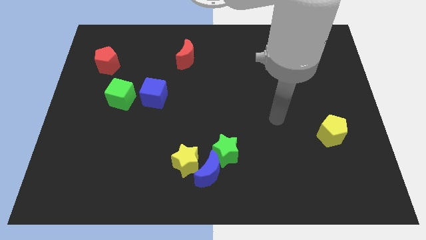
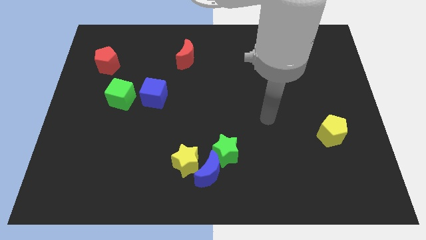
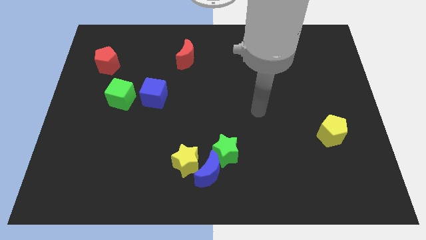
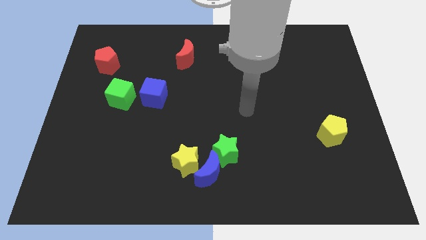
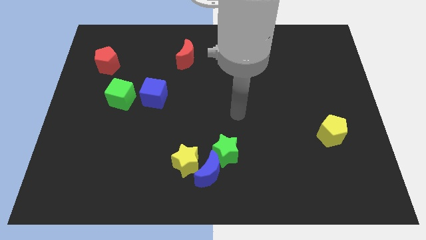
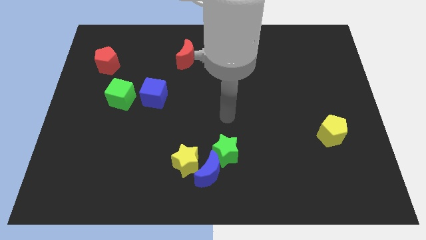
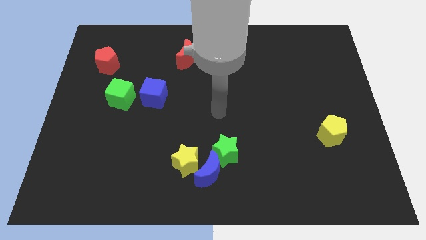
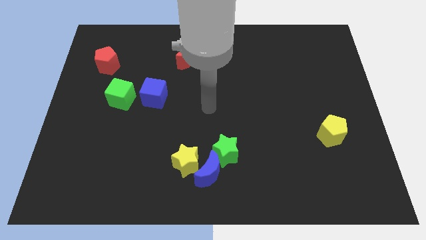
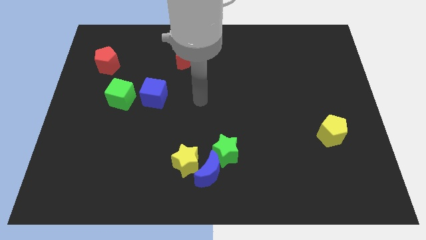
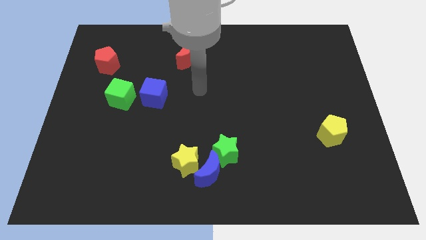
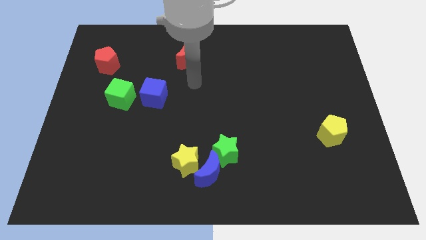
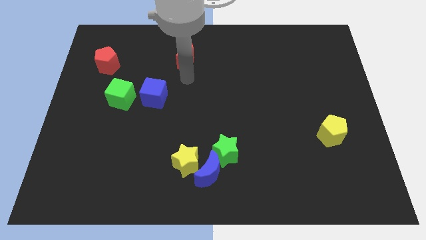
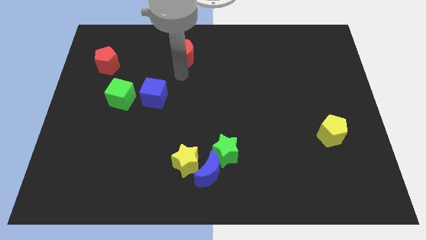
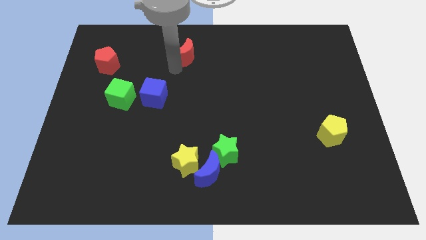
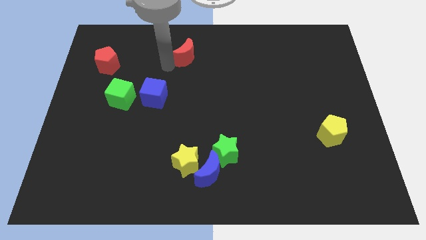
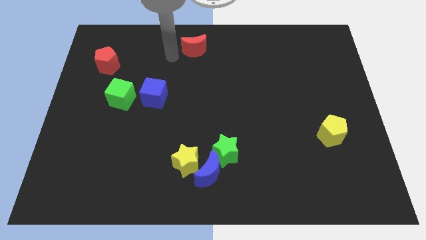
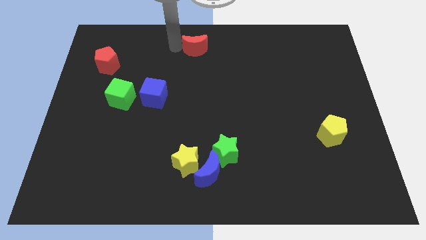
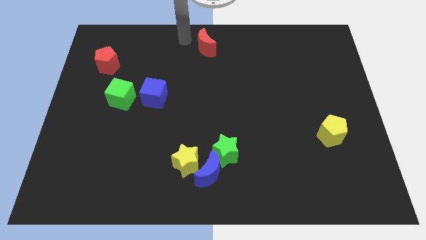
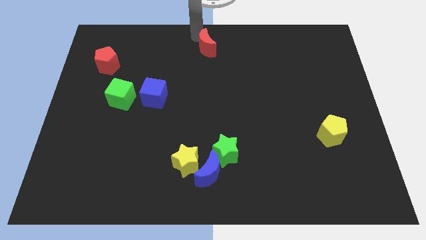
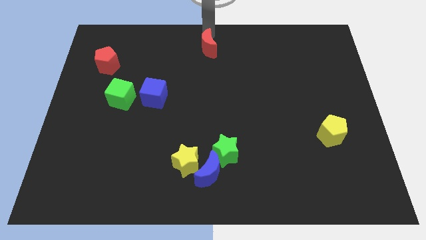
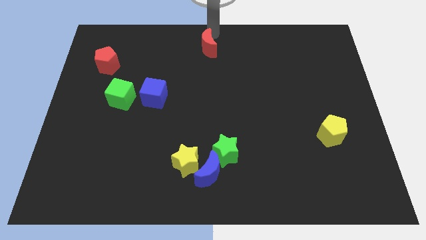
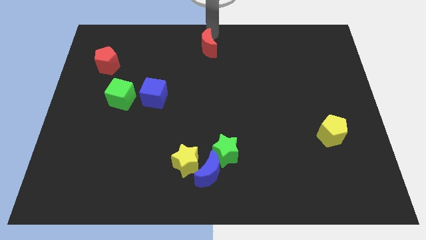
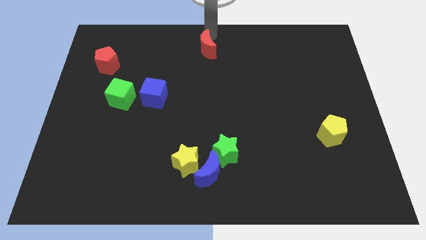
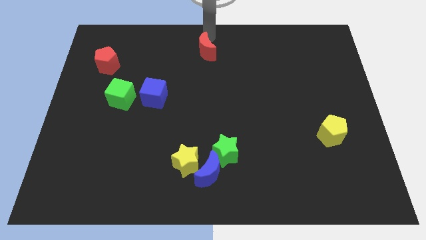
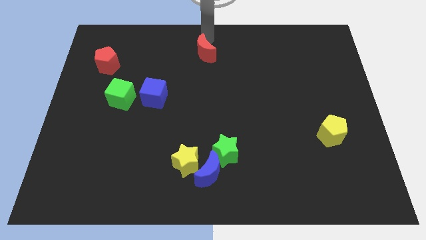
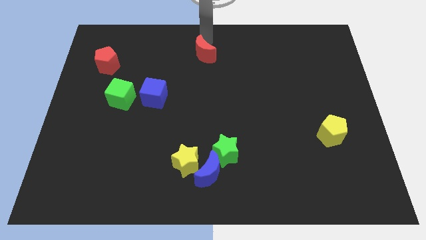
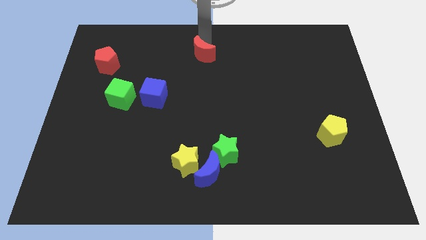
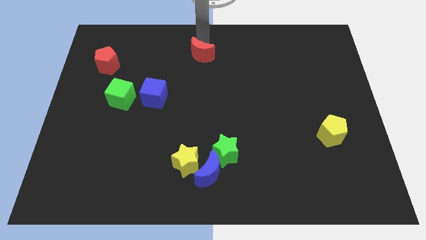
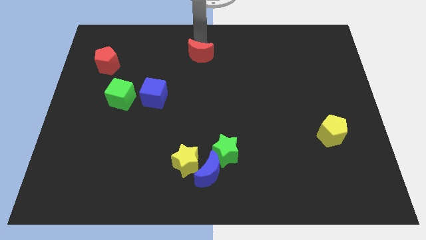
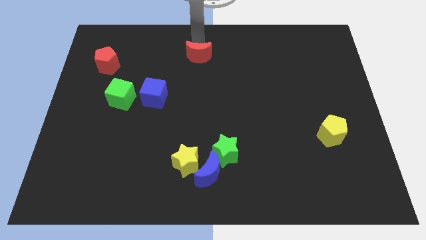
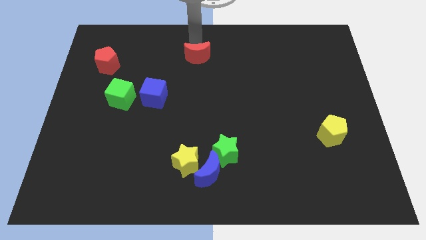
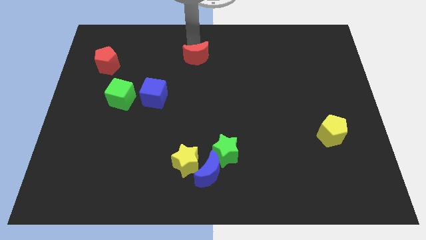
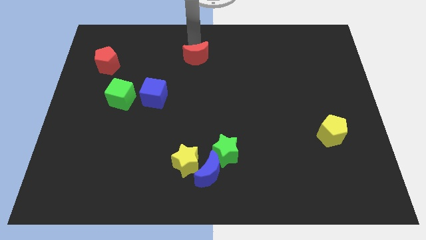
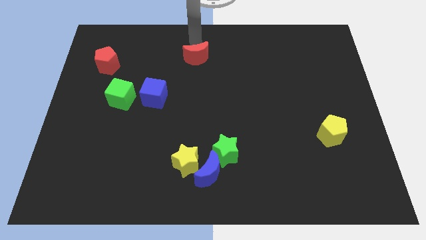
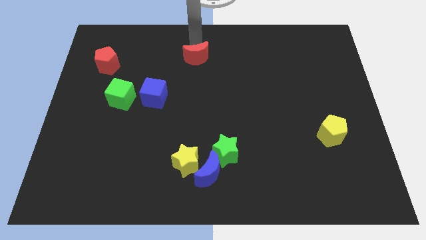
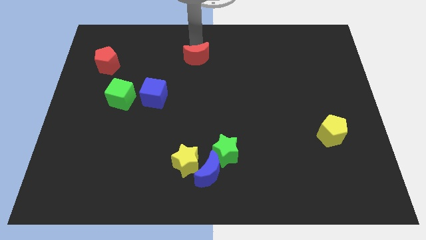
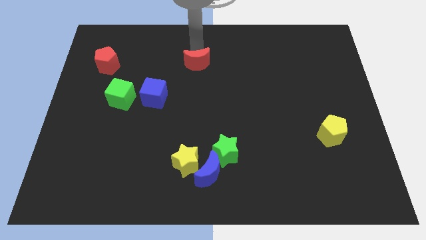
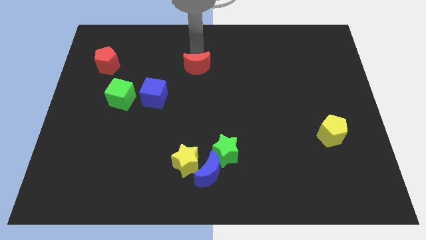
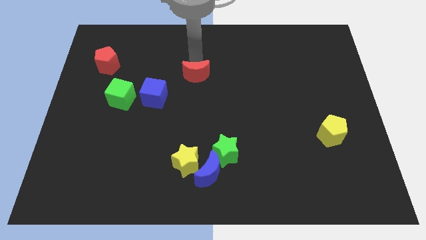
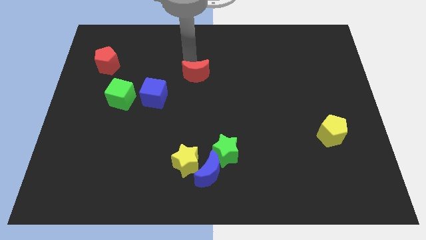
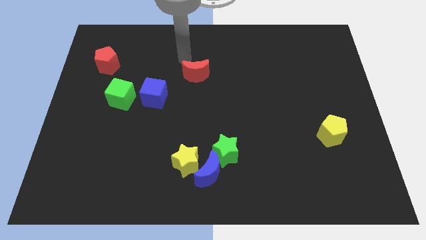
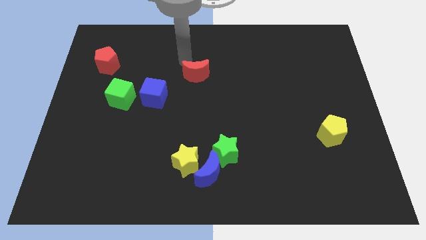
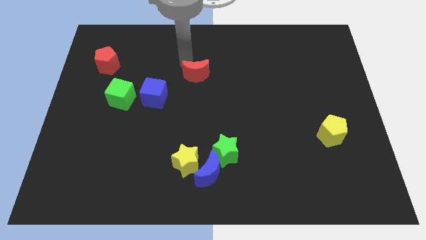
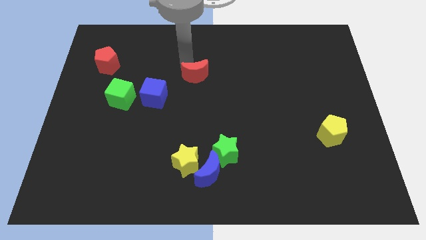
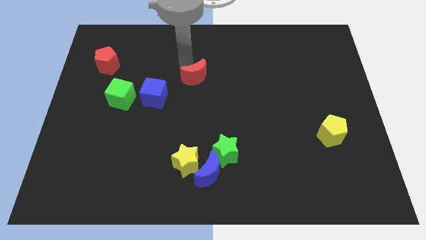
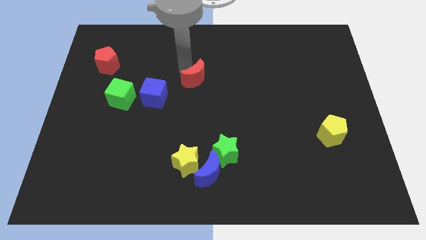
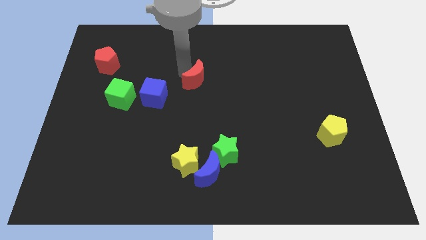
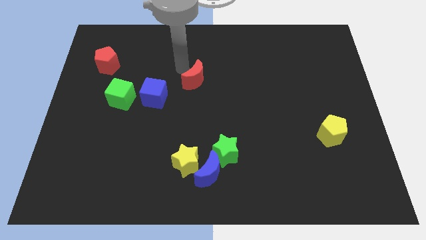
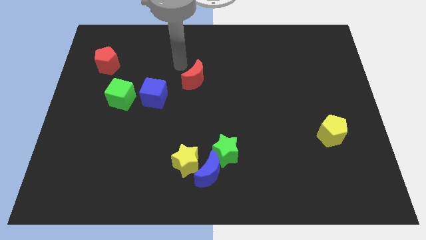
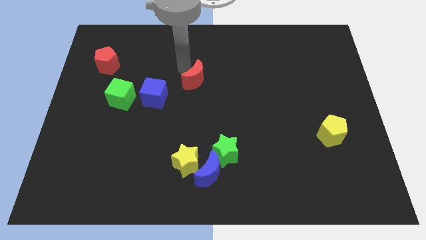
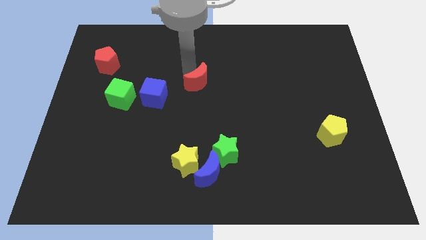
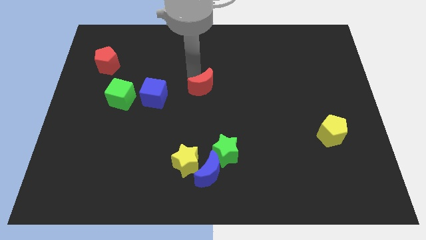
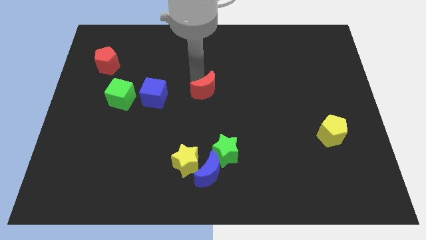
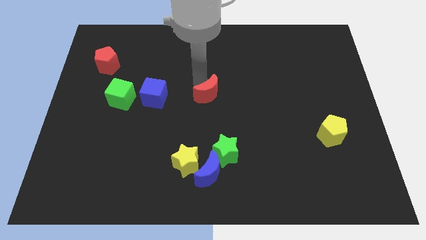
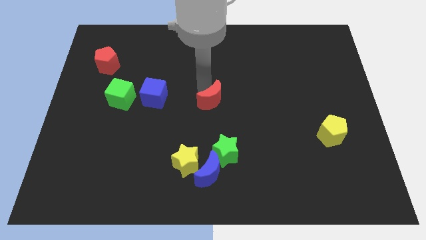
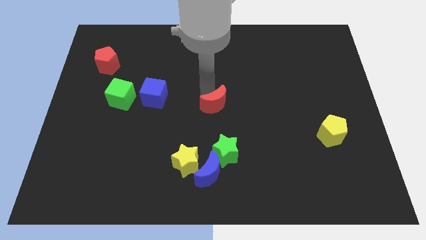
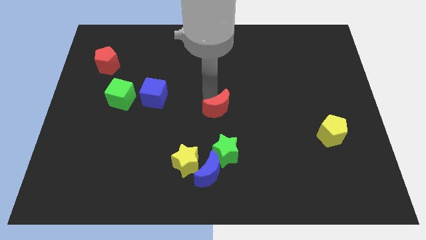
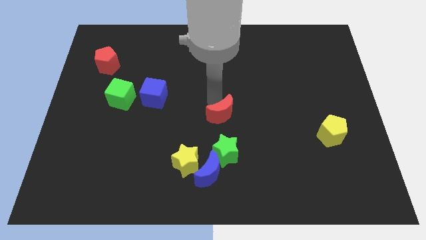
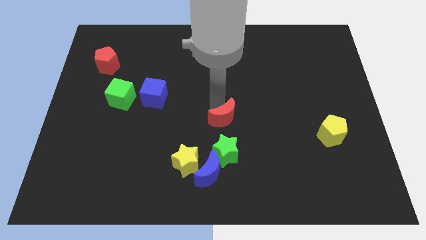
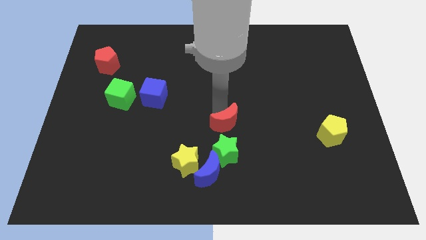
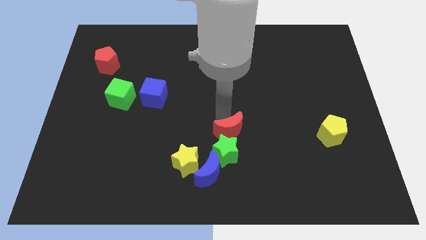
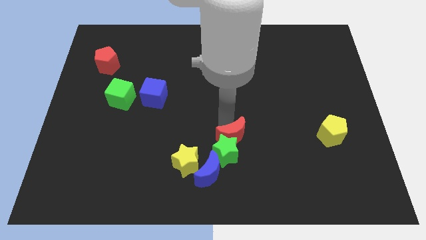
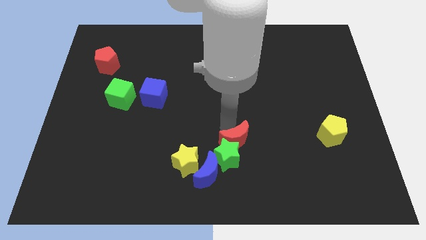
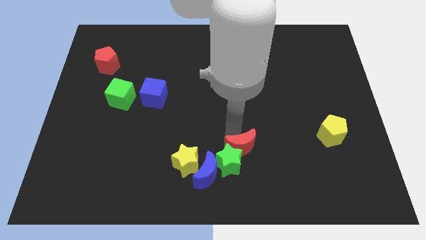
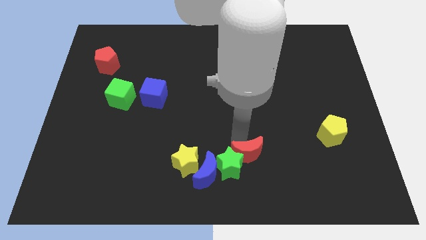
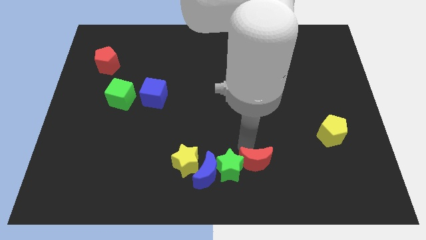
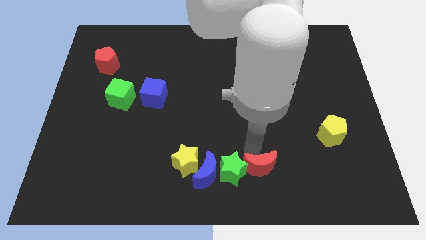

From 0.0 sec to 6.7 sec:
put the red moon diagonally down and to the right of the green star

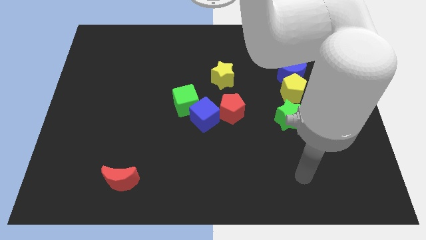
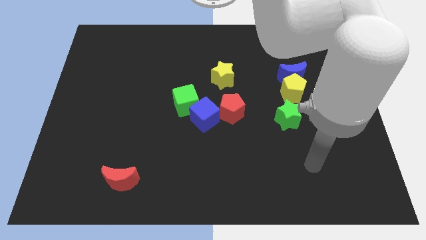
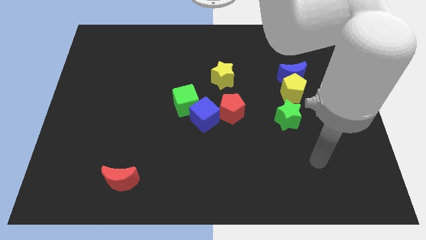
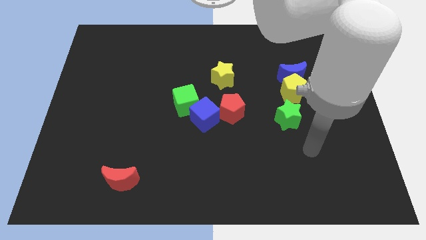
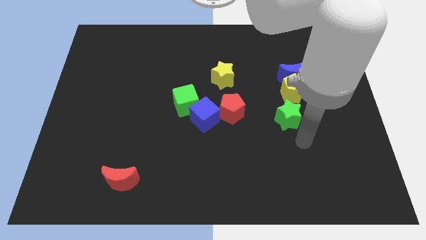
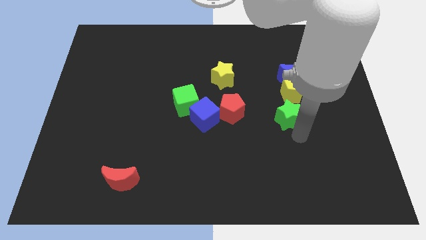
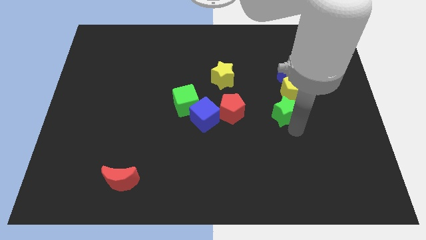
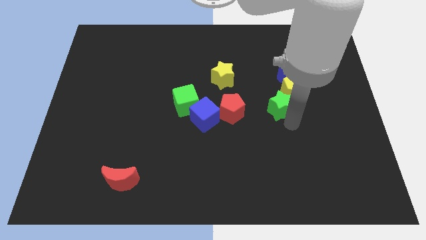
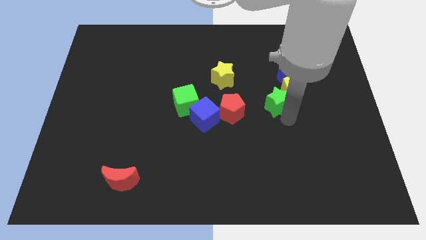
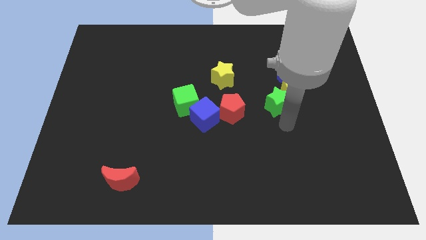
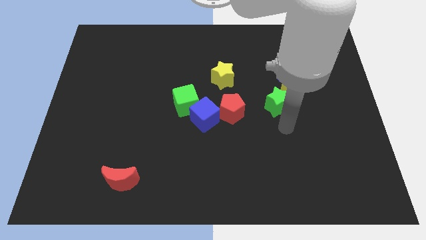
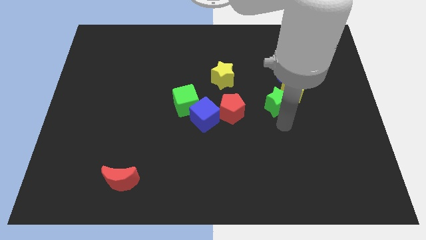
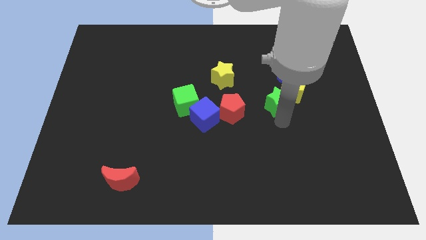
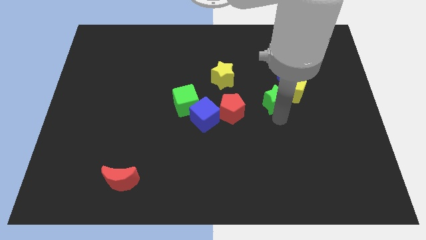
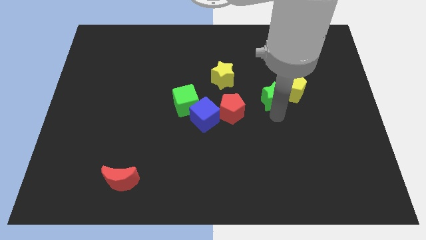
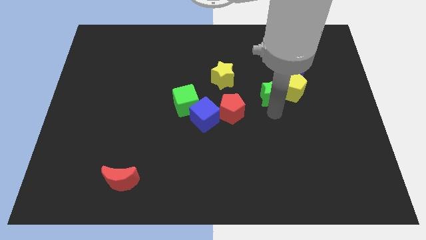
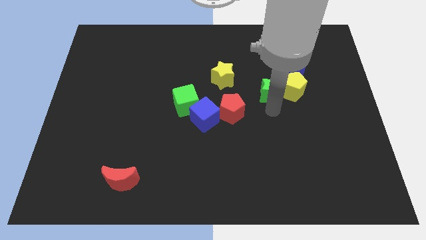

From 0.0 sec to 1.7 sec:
put the green star to the top left of the yellow pentagon
